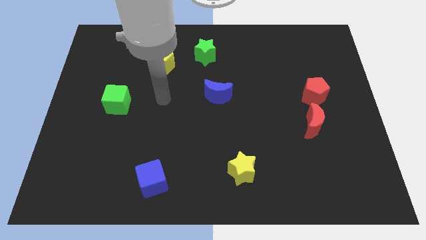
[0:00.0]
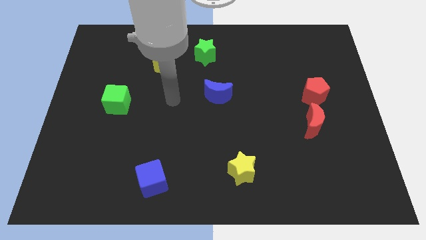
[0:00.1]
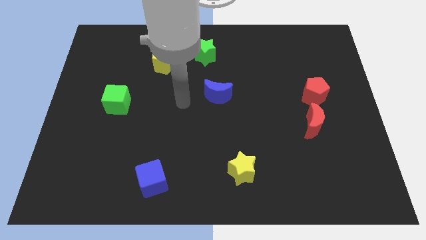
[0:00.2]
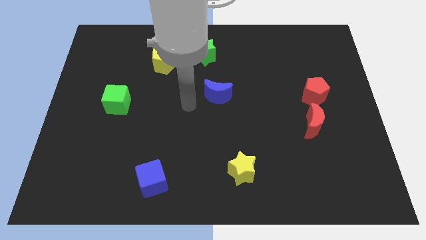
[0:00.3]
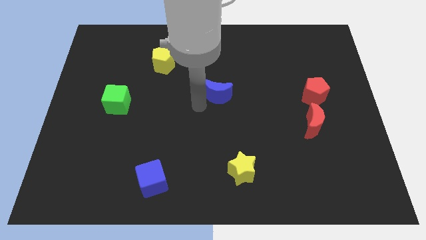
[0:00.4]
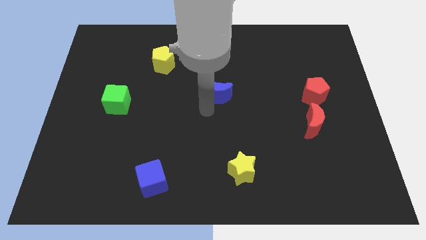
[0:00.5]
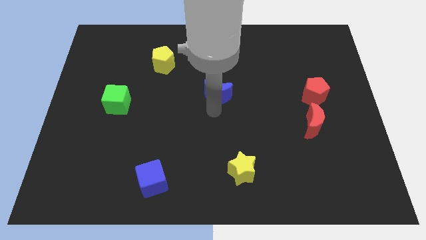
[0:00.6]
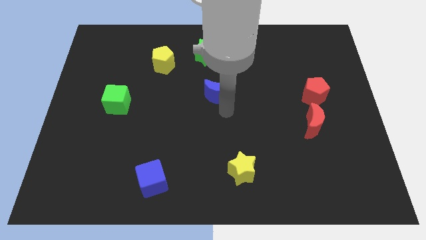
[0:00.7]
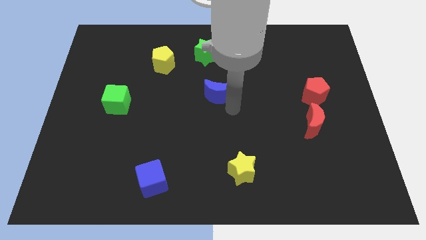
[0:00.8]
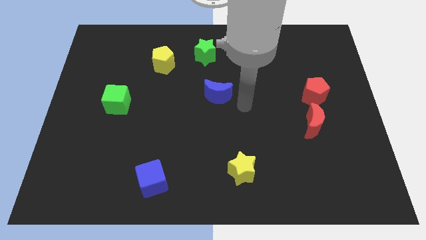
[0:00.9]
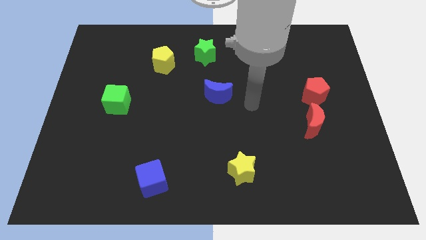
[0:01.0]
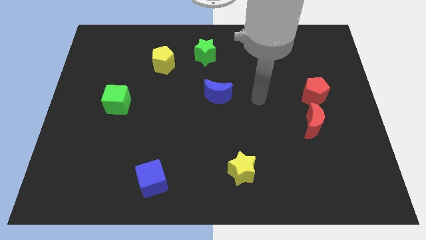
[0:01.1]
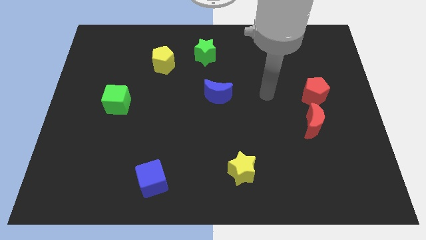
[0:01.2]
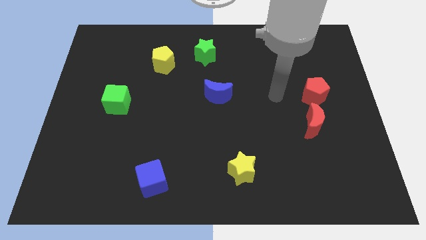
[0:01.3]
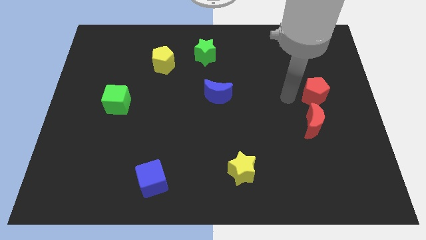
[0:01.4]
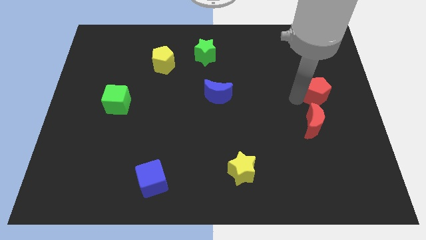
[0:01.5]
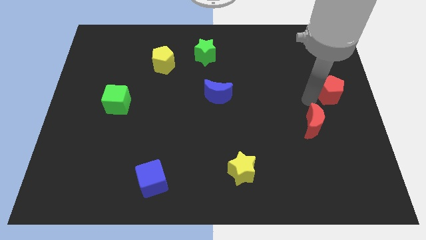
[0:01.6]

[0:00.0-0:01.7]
separate the red moon from the red pentagon

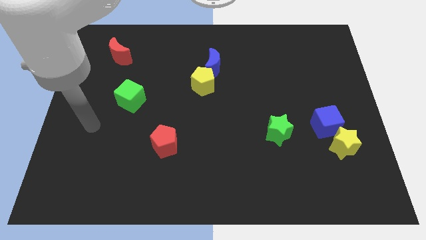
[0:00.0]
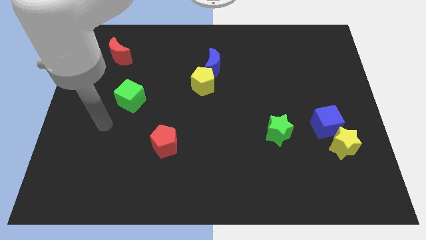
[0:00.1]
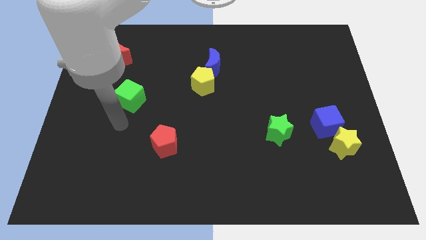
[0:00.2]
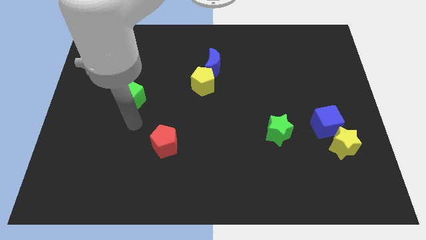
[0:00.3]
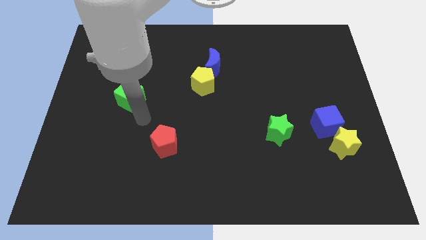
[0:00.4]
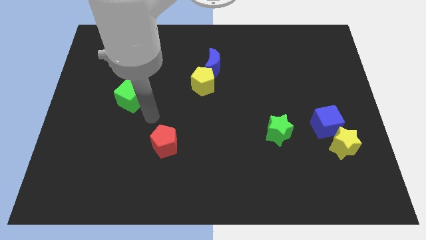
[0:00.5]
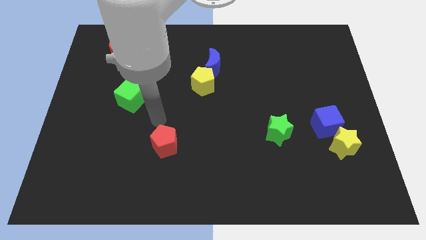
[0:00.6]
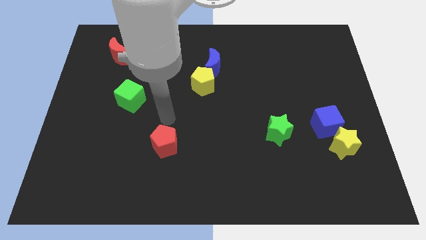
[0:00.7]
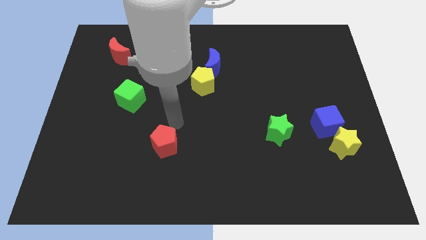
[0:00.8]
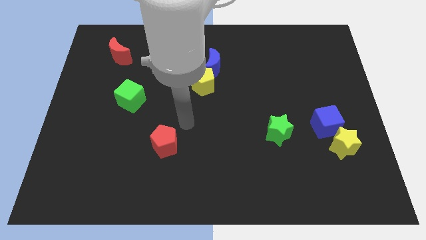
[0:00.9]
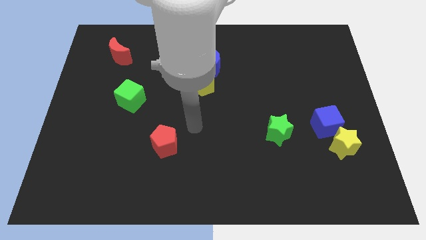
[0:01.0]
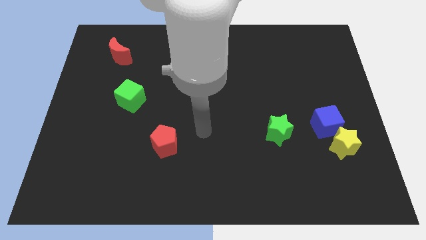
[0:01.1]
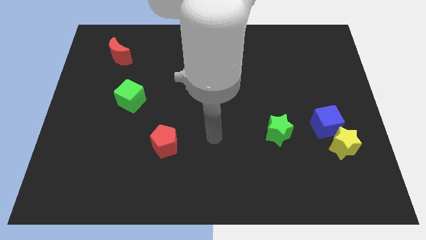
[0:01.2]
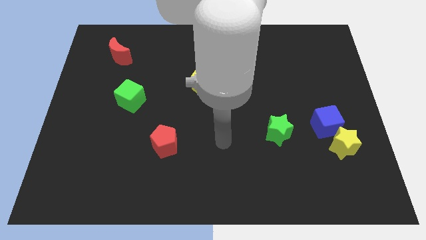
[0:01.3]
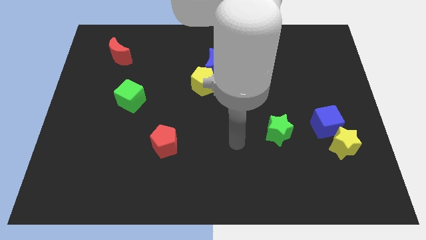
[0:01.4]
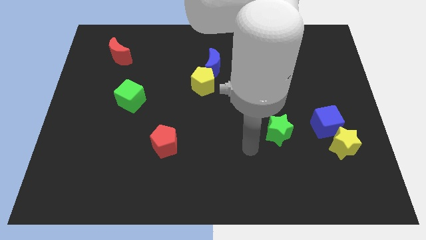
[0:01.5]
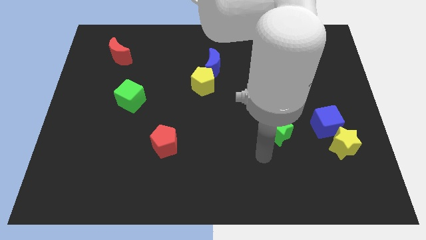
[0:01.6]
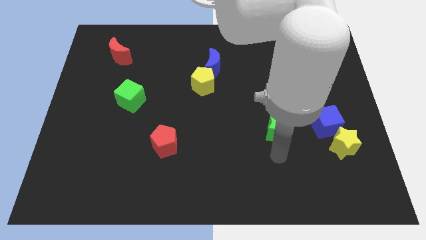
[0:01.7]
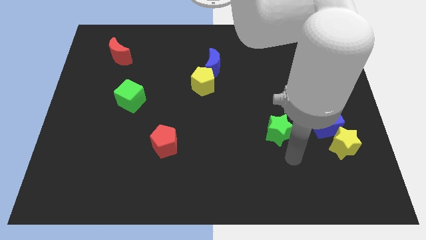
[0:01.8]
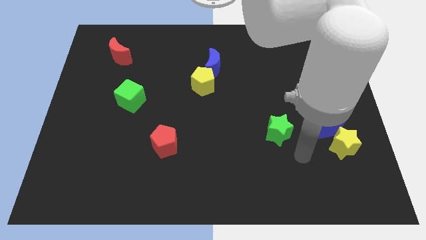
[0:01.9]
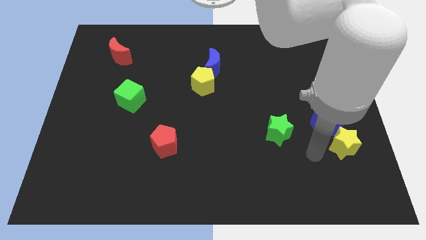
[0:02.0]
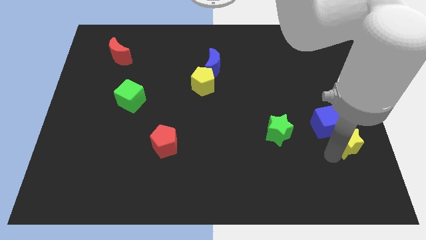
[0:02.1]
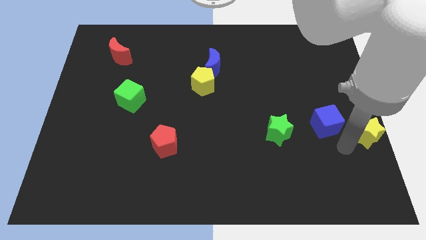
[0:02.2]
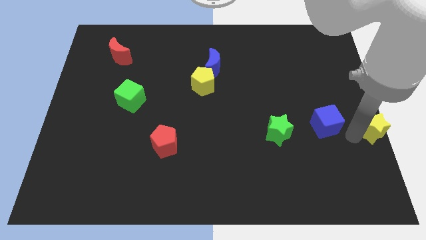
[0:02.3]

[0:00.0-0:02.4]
separate the blue cube from the yellow star

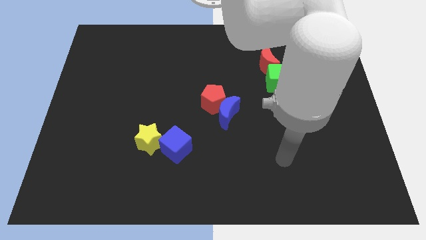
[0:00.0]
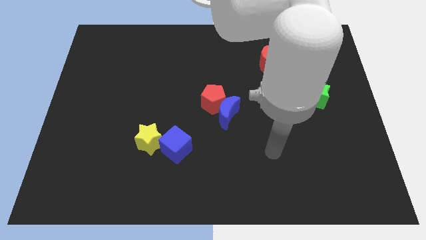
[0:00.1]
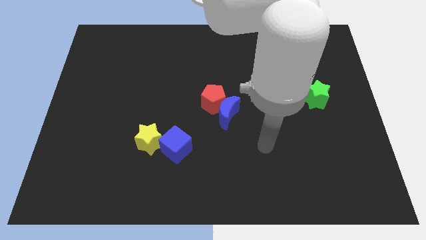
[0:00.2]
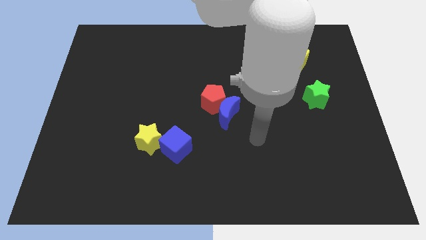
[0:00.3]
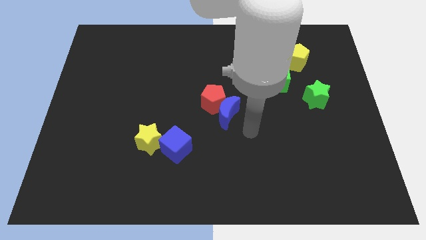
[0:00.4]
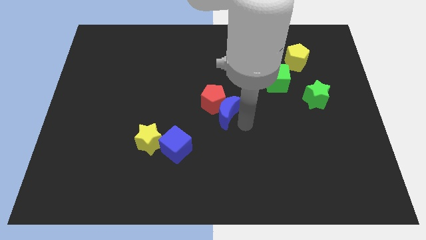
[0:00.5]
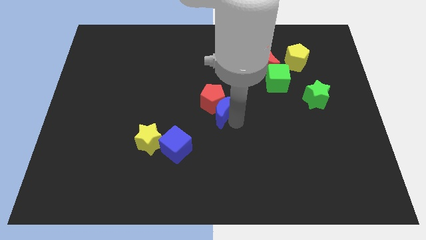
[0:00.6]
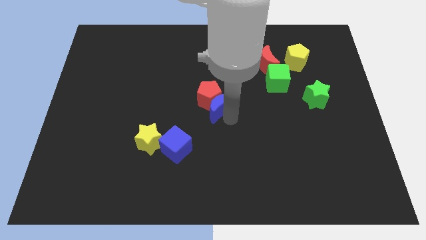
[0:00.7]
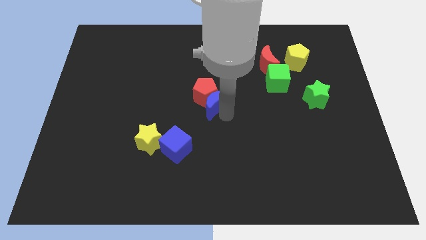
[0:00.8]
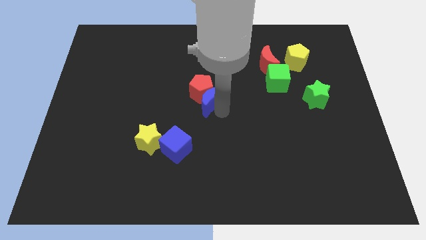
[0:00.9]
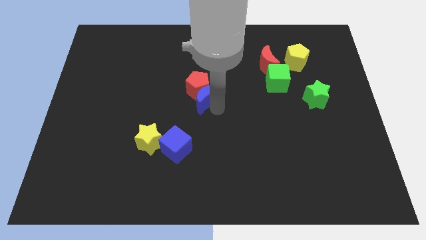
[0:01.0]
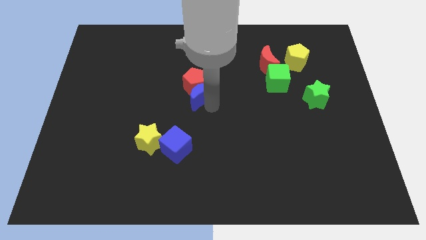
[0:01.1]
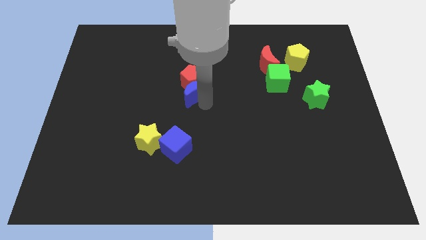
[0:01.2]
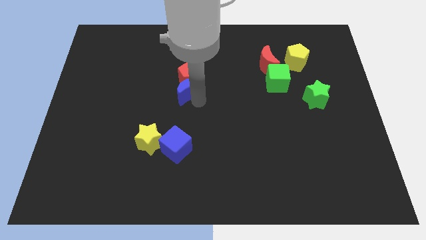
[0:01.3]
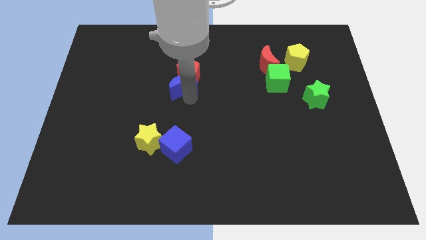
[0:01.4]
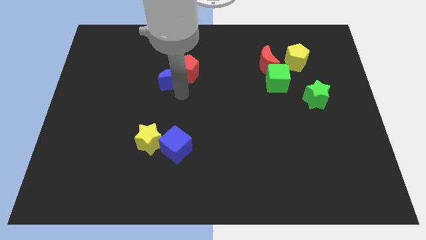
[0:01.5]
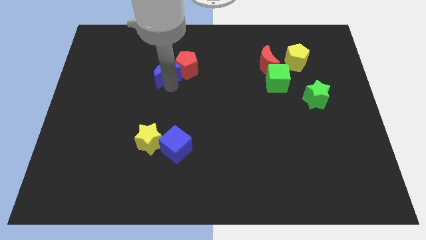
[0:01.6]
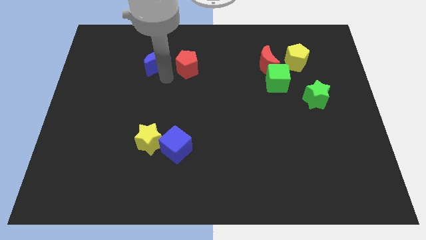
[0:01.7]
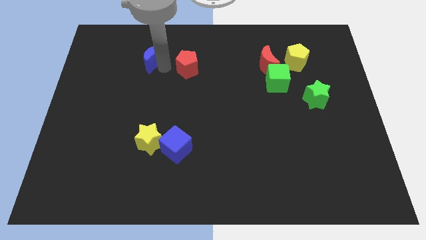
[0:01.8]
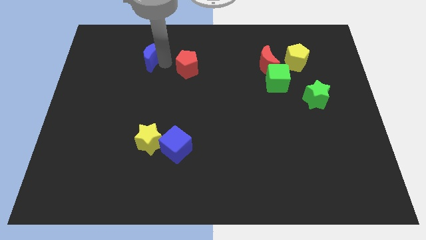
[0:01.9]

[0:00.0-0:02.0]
move the red pentagon away from the blue moon

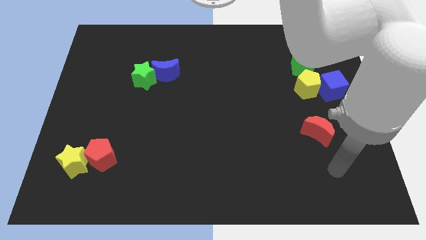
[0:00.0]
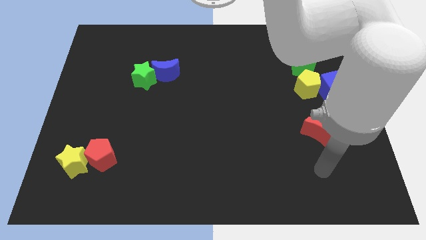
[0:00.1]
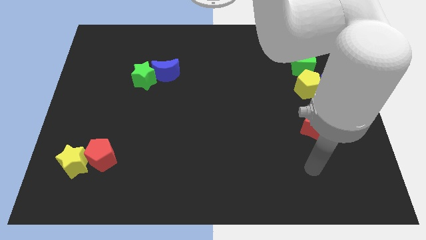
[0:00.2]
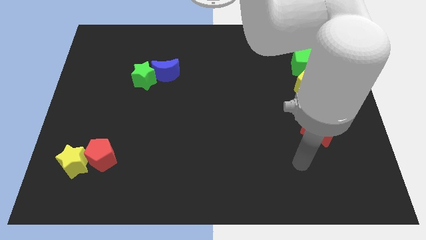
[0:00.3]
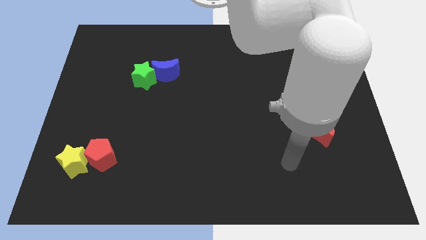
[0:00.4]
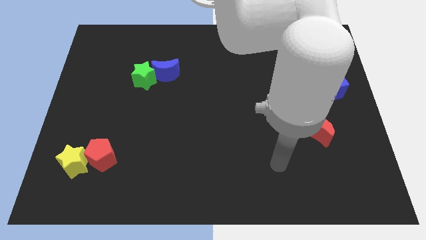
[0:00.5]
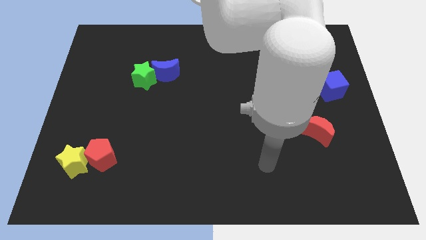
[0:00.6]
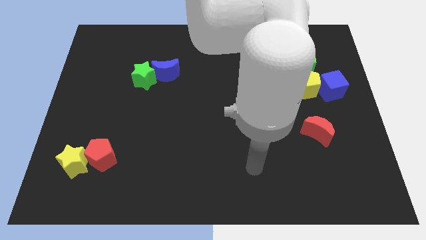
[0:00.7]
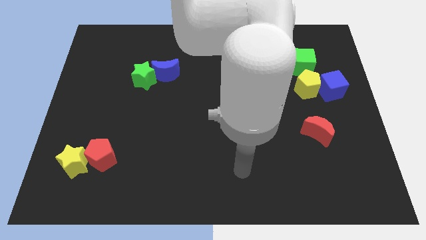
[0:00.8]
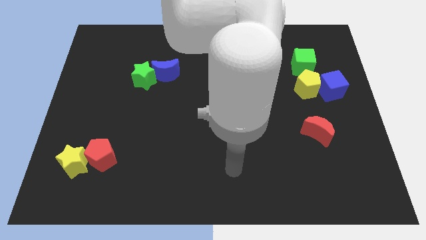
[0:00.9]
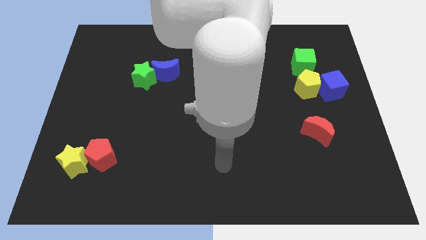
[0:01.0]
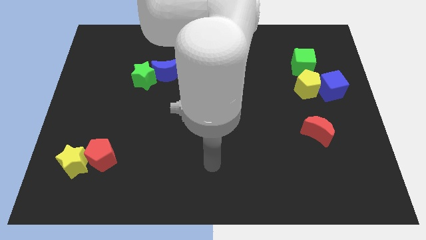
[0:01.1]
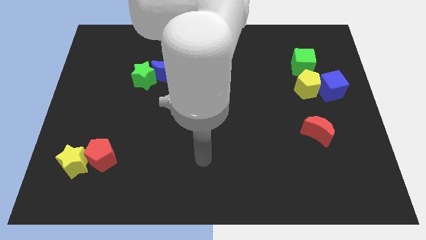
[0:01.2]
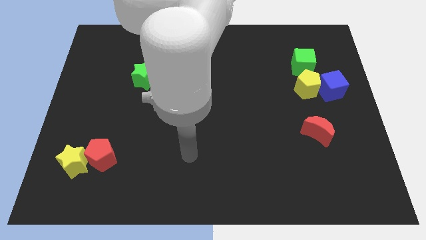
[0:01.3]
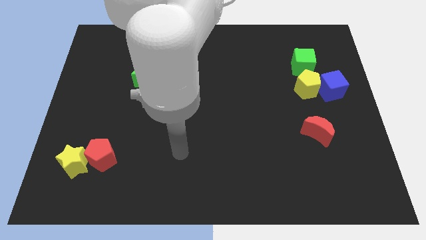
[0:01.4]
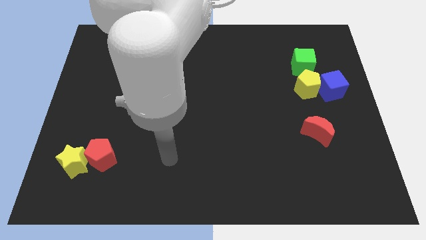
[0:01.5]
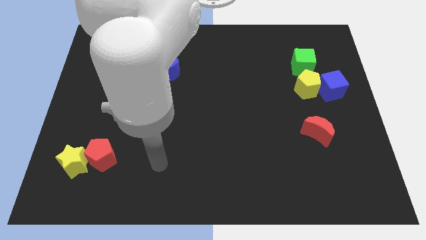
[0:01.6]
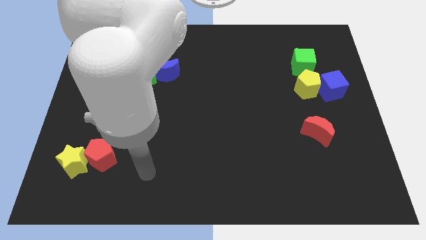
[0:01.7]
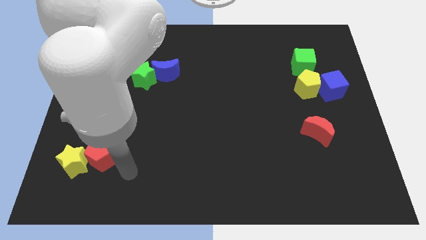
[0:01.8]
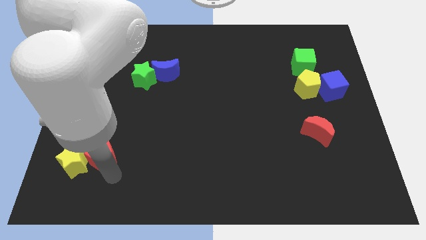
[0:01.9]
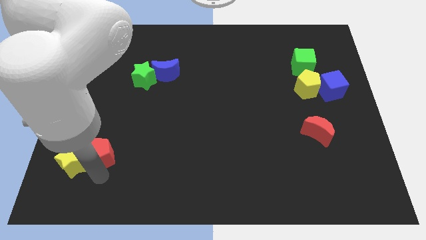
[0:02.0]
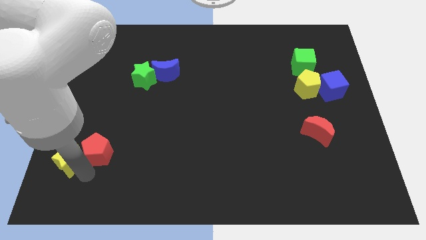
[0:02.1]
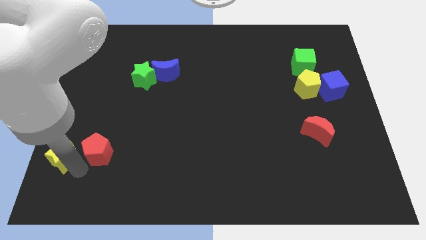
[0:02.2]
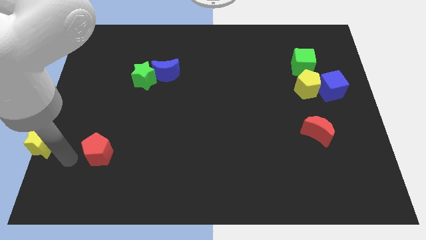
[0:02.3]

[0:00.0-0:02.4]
separate the red pentagon from the yellow star

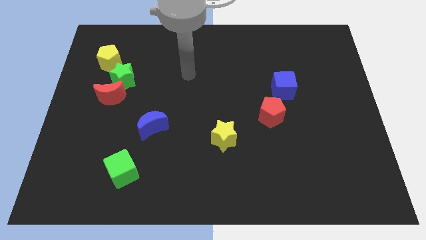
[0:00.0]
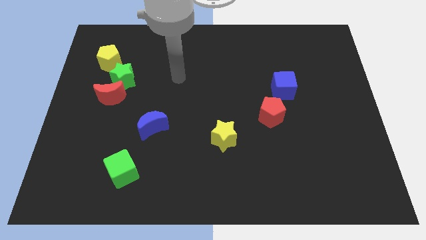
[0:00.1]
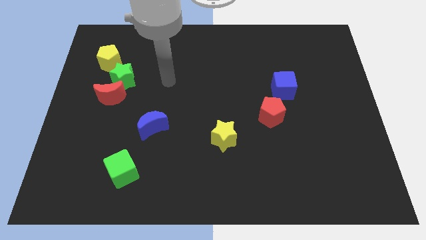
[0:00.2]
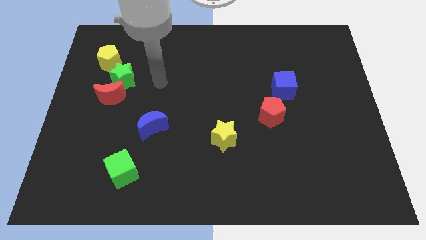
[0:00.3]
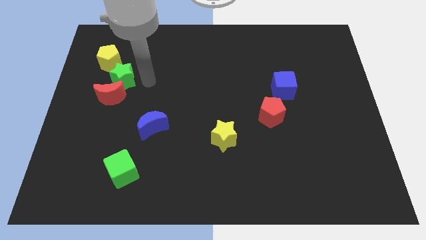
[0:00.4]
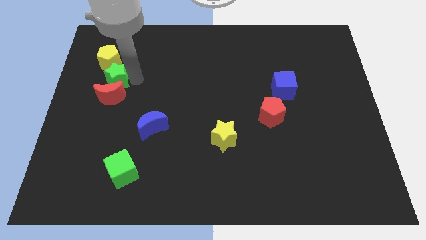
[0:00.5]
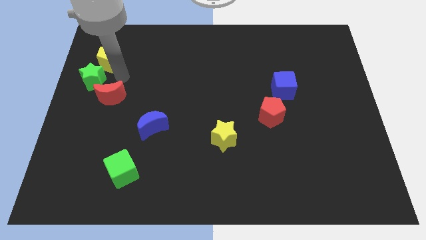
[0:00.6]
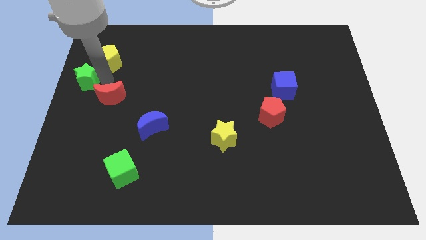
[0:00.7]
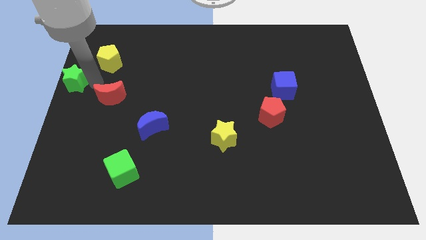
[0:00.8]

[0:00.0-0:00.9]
pull the red moon apart from the green star
